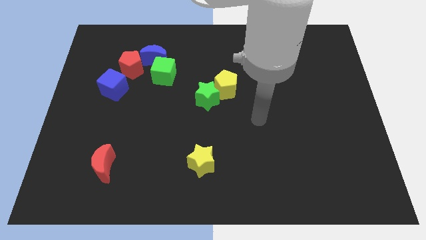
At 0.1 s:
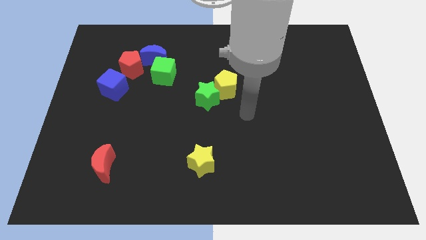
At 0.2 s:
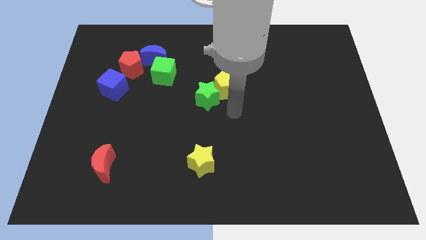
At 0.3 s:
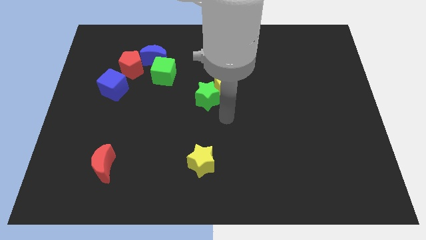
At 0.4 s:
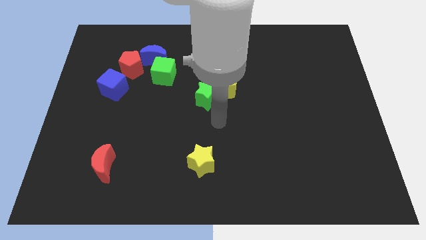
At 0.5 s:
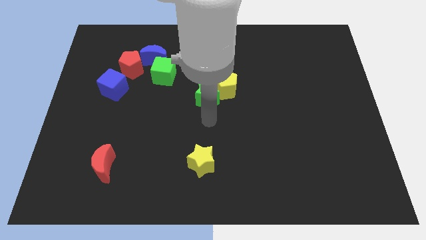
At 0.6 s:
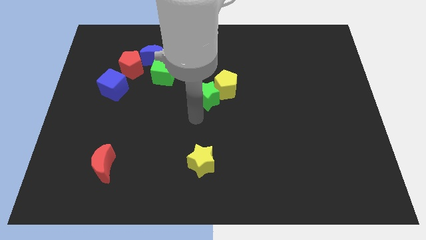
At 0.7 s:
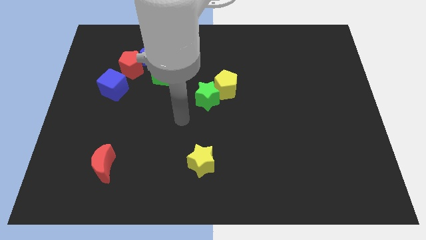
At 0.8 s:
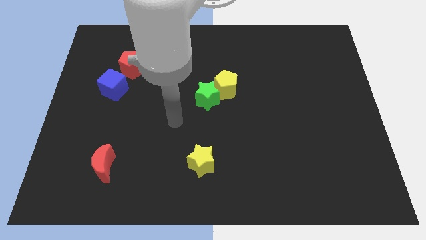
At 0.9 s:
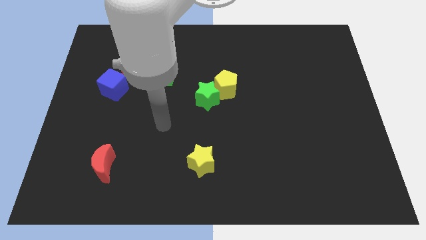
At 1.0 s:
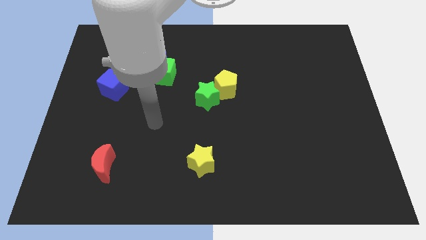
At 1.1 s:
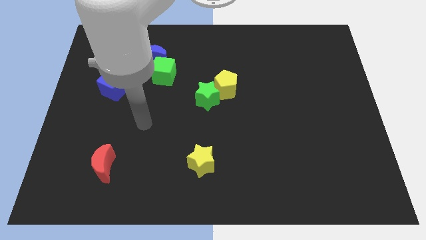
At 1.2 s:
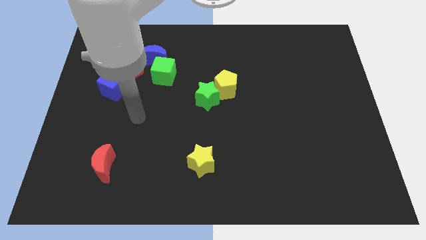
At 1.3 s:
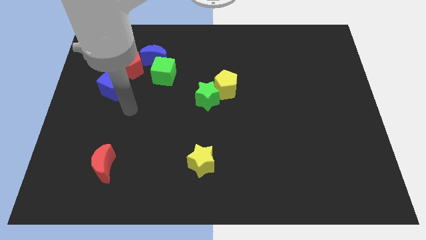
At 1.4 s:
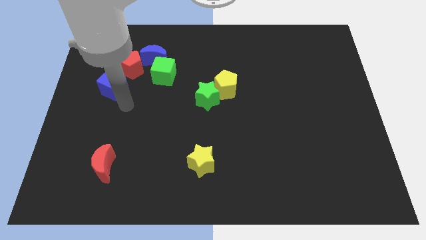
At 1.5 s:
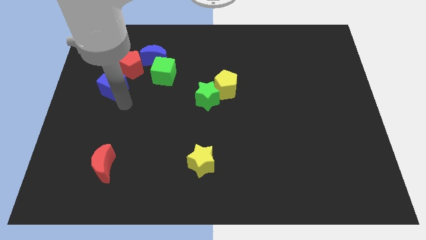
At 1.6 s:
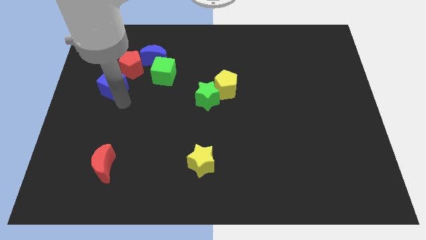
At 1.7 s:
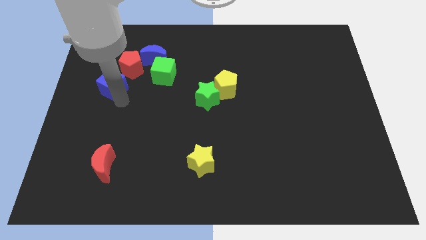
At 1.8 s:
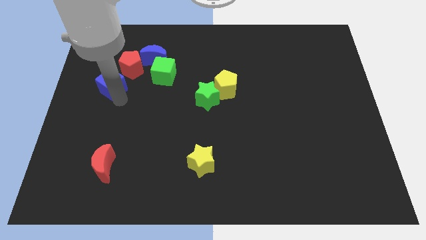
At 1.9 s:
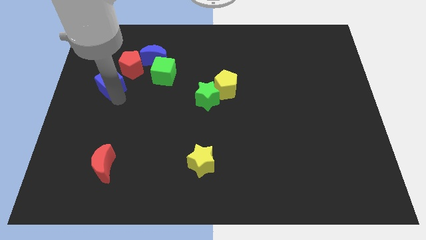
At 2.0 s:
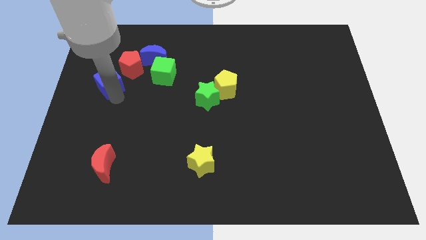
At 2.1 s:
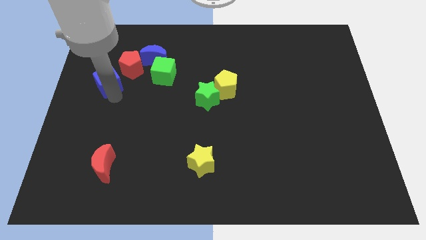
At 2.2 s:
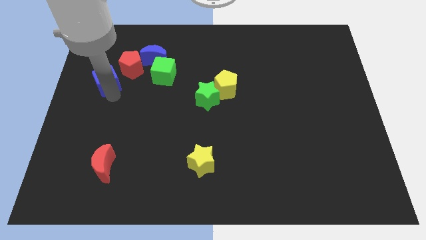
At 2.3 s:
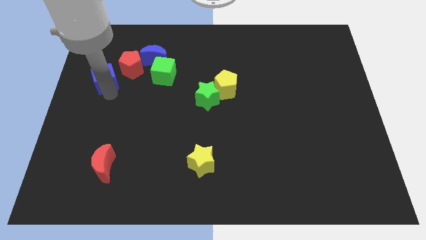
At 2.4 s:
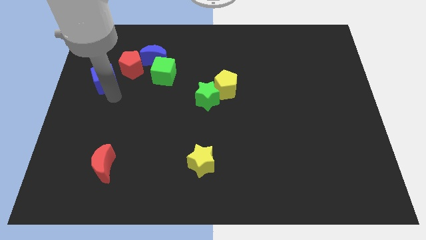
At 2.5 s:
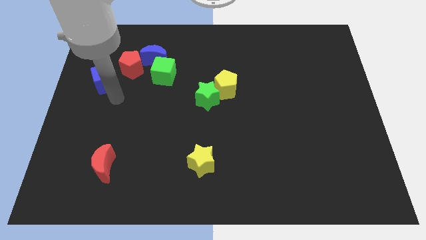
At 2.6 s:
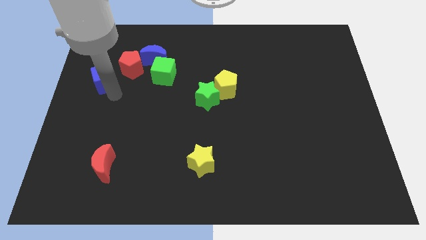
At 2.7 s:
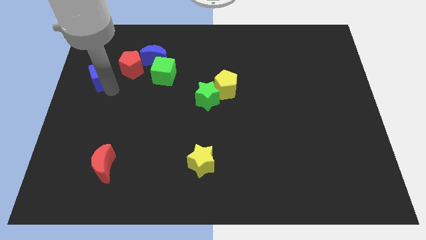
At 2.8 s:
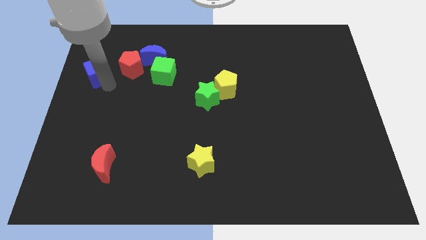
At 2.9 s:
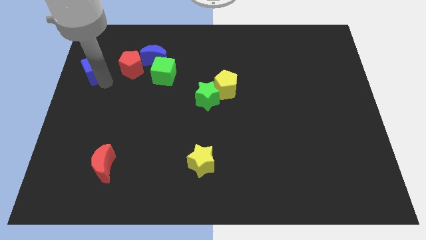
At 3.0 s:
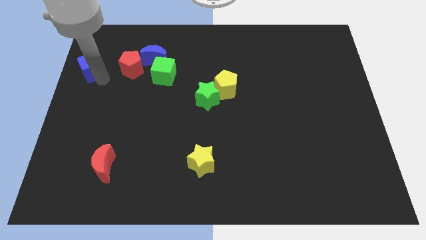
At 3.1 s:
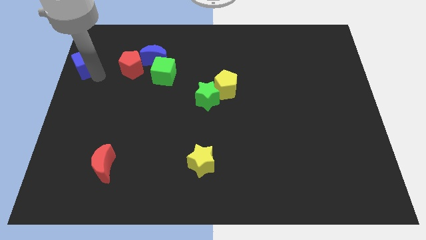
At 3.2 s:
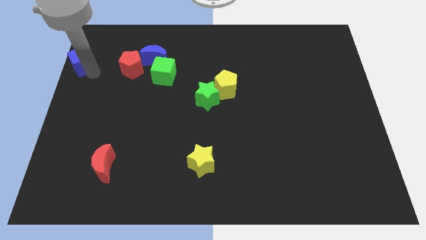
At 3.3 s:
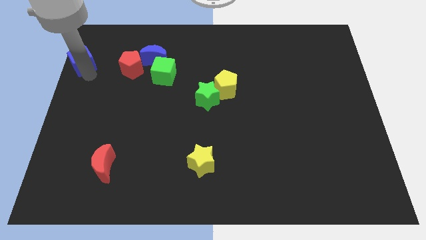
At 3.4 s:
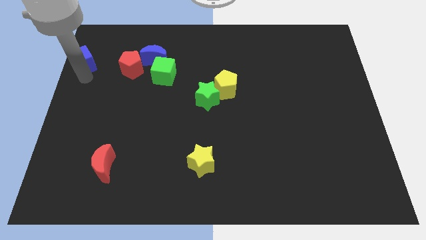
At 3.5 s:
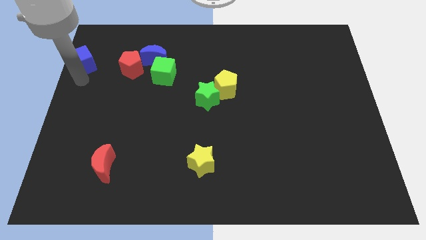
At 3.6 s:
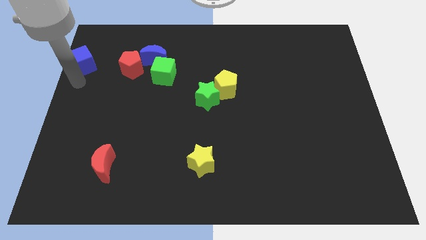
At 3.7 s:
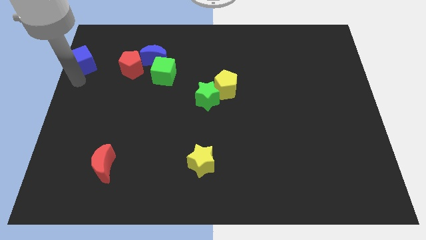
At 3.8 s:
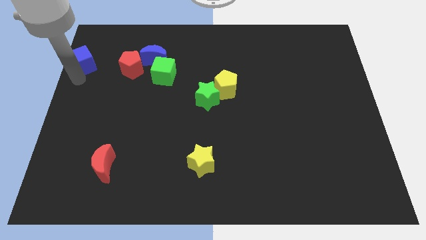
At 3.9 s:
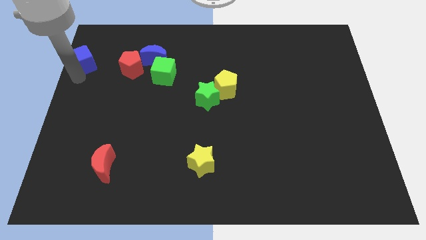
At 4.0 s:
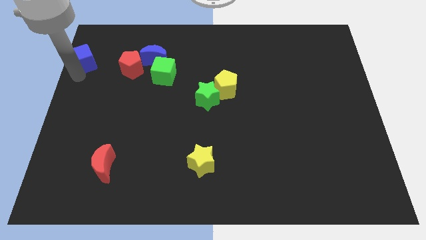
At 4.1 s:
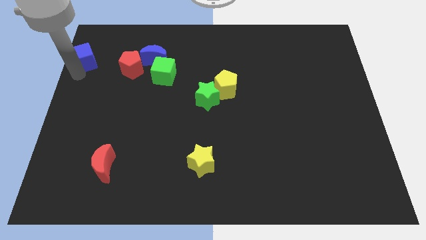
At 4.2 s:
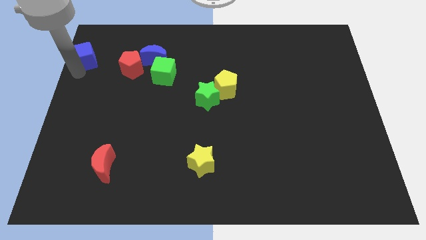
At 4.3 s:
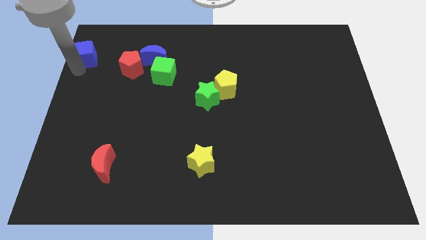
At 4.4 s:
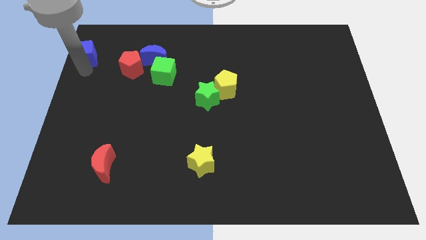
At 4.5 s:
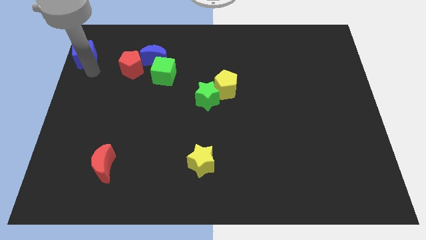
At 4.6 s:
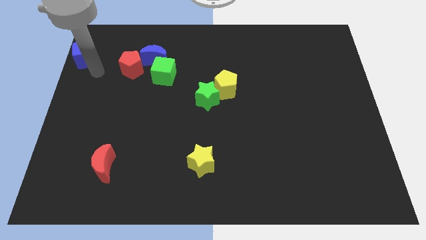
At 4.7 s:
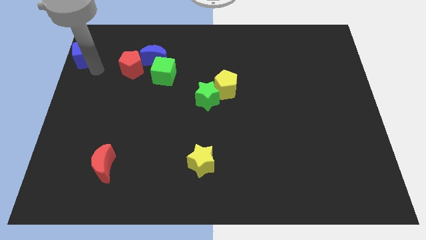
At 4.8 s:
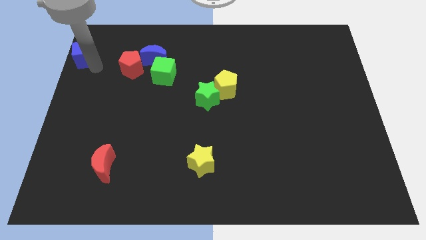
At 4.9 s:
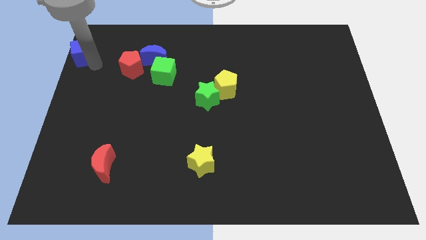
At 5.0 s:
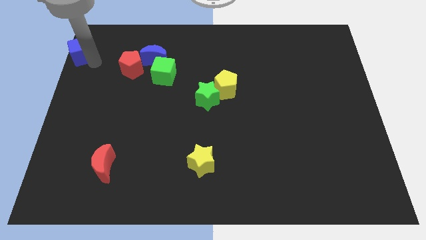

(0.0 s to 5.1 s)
push the blue cube to the upper left corner

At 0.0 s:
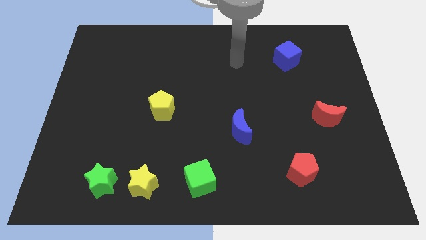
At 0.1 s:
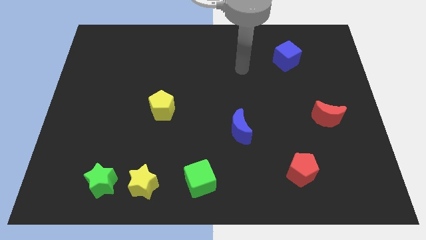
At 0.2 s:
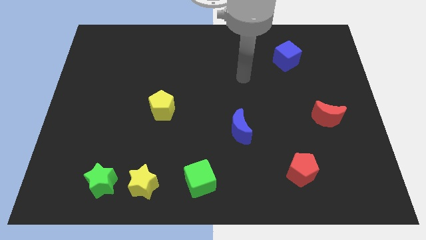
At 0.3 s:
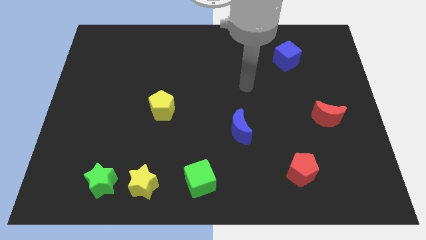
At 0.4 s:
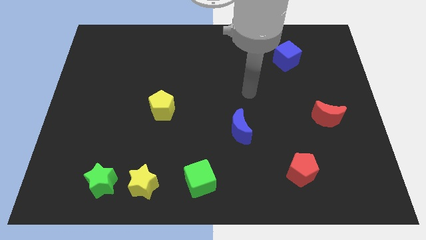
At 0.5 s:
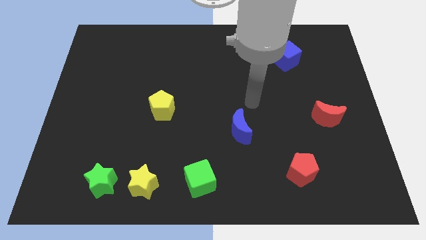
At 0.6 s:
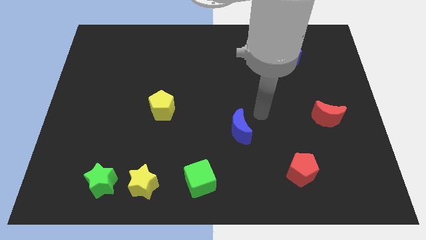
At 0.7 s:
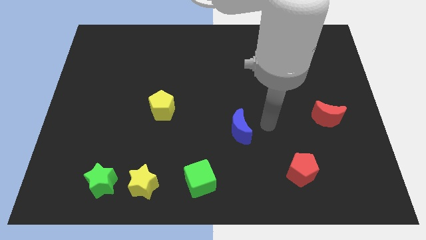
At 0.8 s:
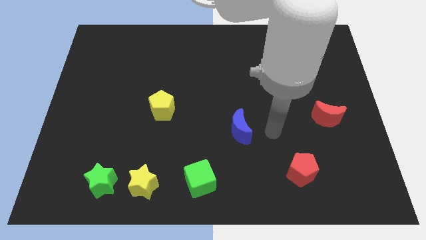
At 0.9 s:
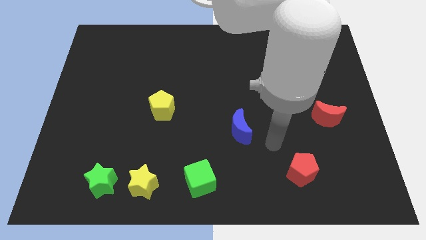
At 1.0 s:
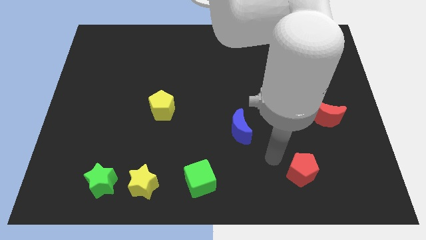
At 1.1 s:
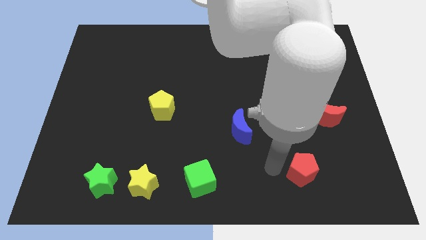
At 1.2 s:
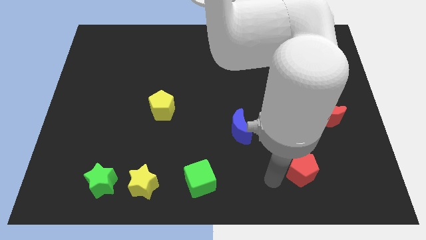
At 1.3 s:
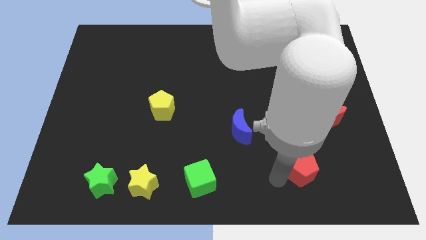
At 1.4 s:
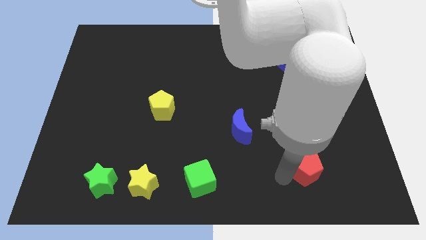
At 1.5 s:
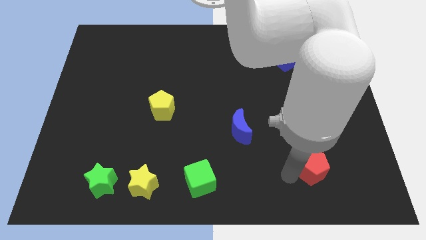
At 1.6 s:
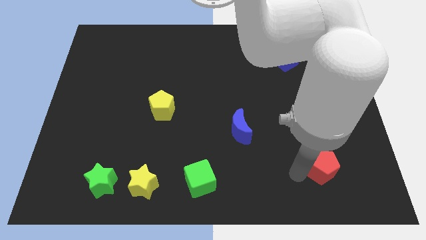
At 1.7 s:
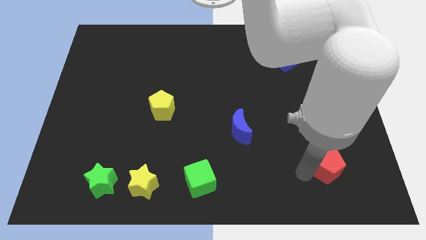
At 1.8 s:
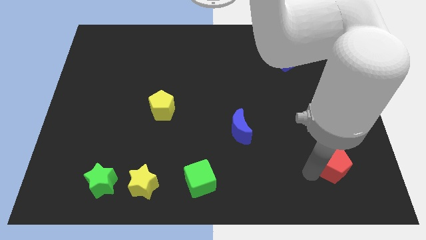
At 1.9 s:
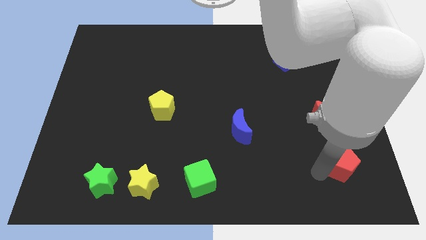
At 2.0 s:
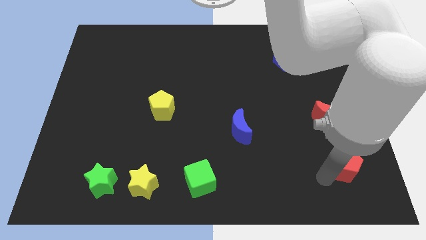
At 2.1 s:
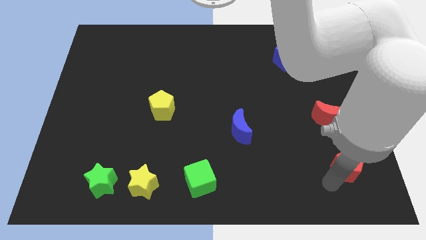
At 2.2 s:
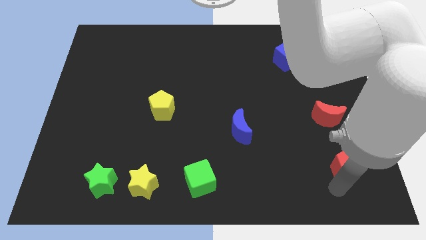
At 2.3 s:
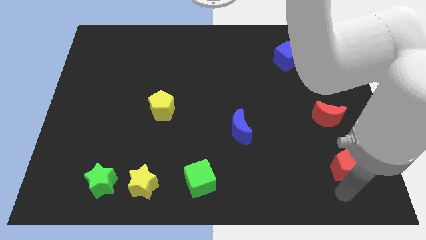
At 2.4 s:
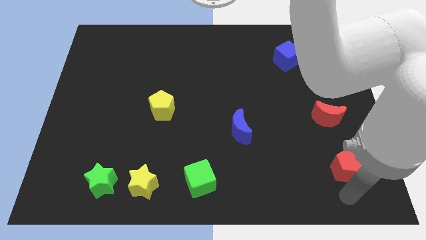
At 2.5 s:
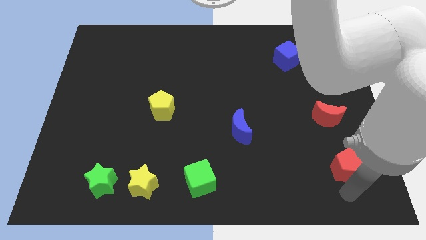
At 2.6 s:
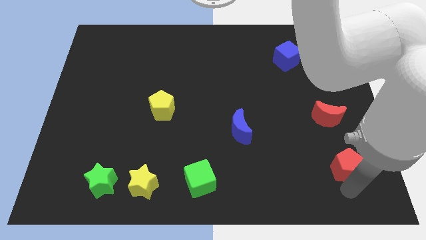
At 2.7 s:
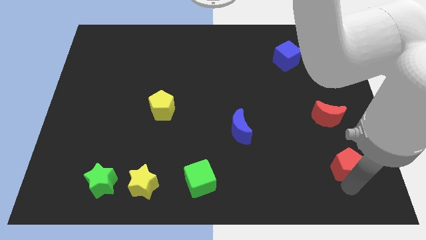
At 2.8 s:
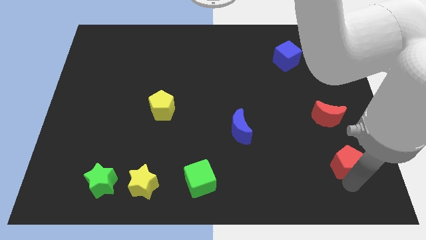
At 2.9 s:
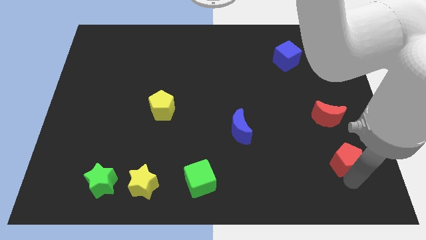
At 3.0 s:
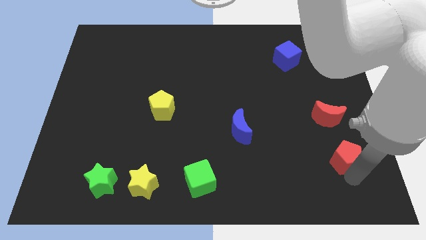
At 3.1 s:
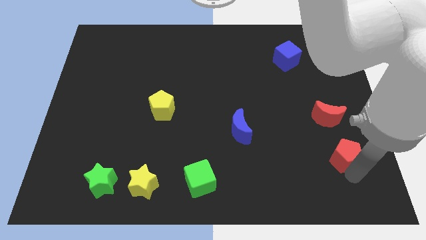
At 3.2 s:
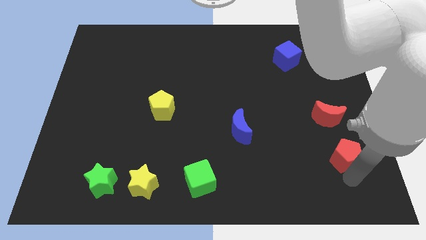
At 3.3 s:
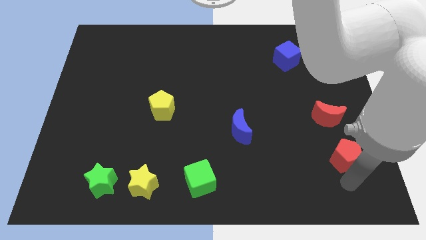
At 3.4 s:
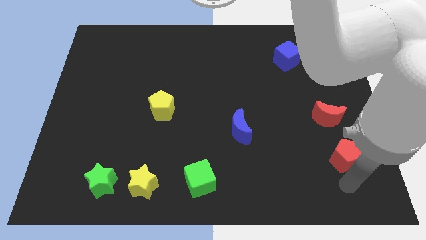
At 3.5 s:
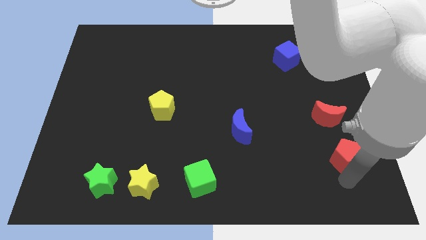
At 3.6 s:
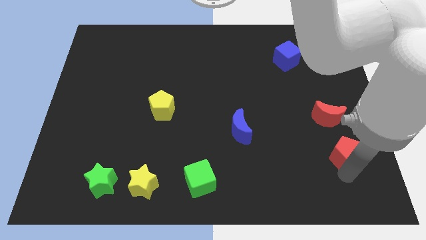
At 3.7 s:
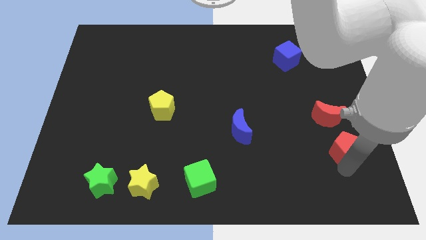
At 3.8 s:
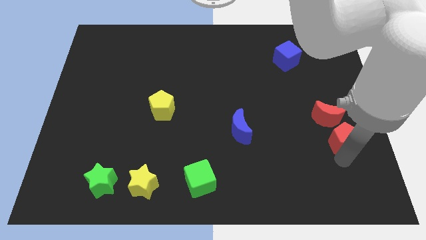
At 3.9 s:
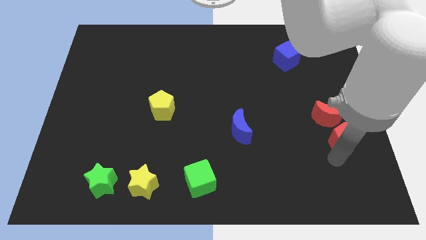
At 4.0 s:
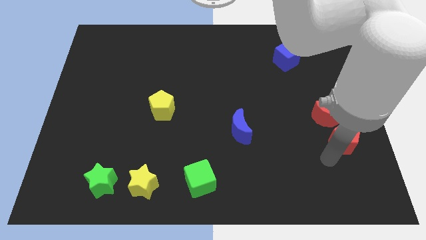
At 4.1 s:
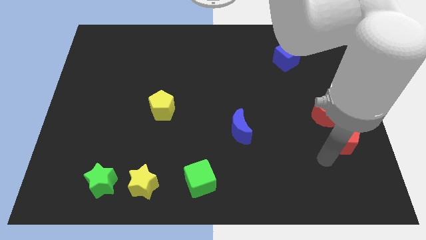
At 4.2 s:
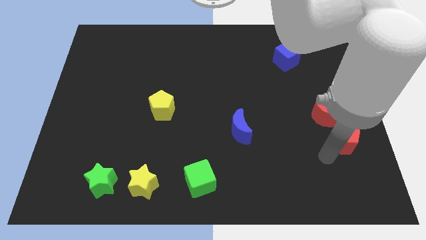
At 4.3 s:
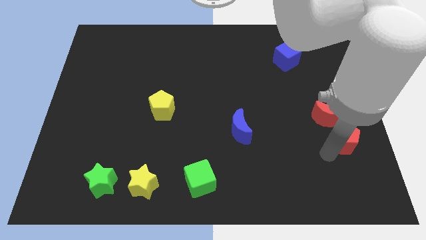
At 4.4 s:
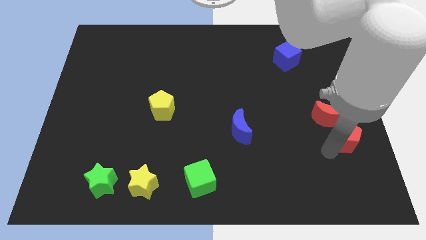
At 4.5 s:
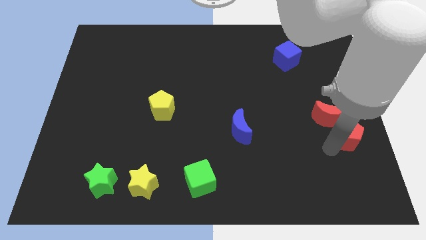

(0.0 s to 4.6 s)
slide the red pentagon to the right side of the board
